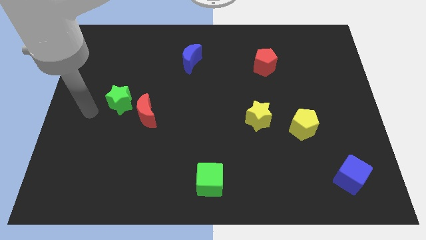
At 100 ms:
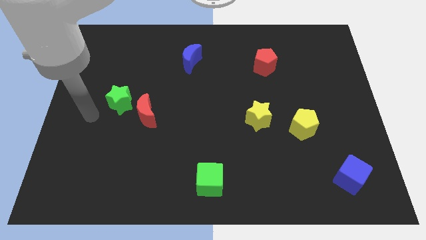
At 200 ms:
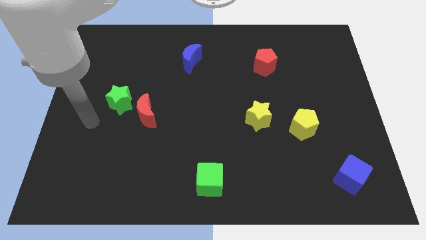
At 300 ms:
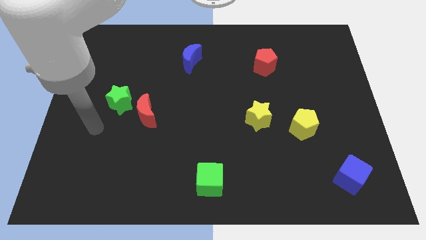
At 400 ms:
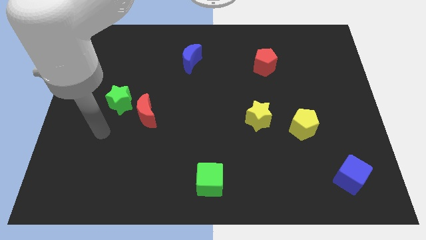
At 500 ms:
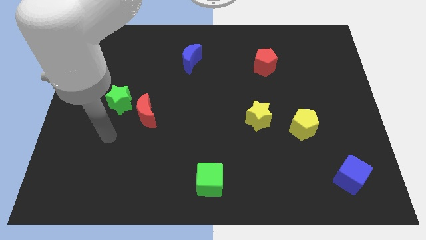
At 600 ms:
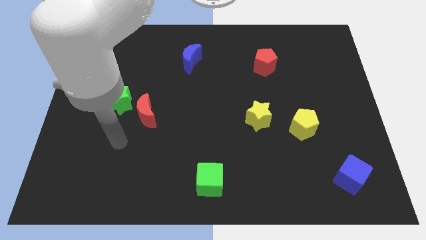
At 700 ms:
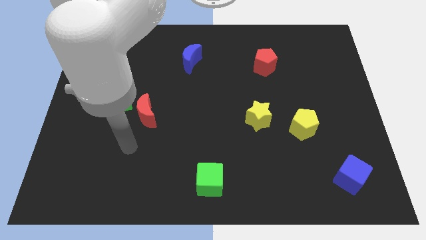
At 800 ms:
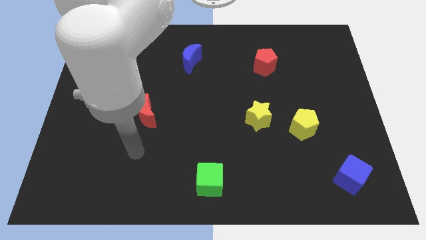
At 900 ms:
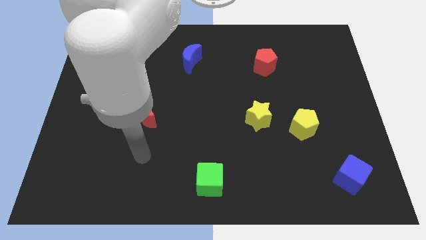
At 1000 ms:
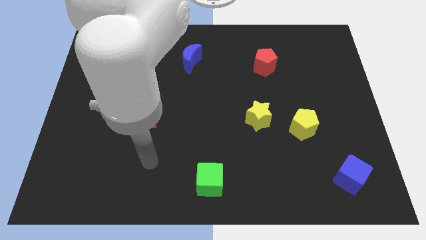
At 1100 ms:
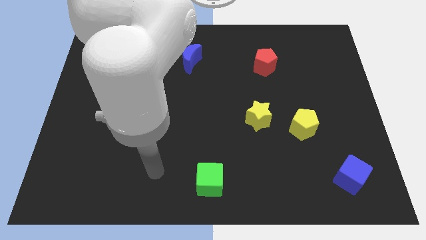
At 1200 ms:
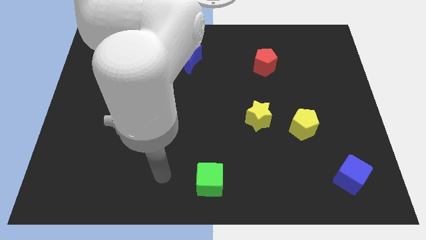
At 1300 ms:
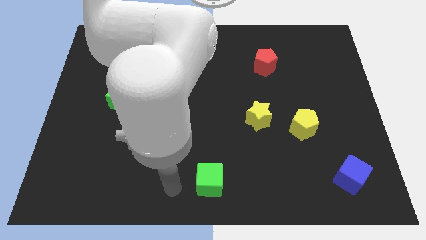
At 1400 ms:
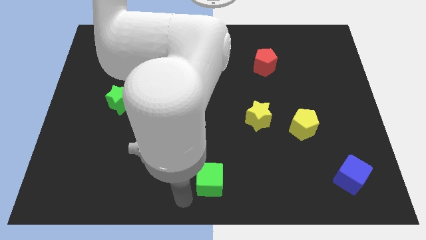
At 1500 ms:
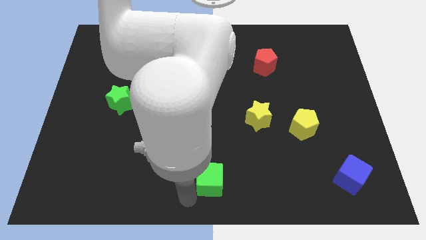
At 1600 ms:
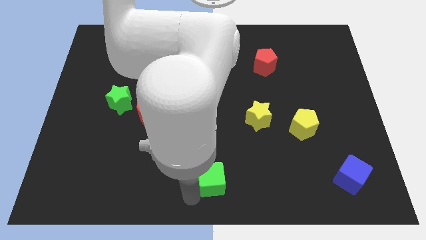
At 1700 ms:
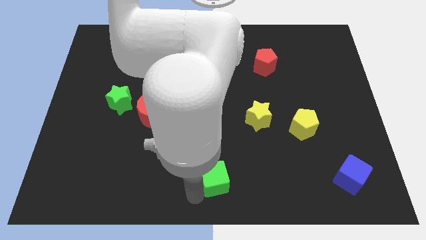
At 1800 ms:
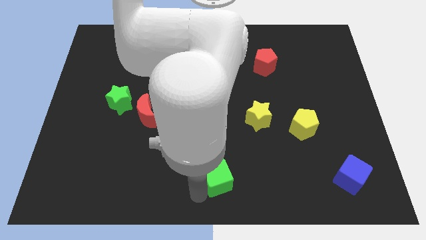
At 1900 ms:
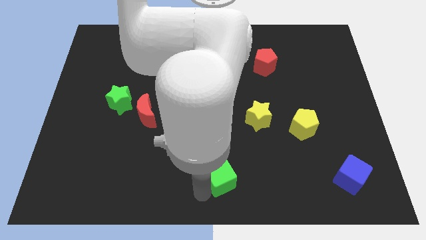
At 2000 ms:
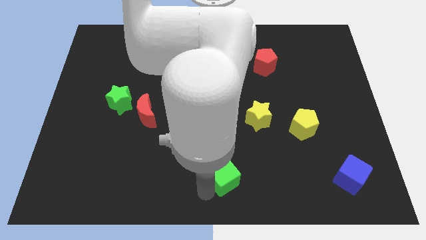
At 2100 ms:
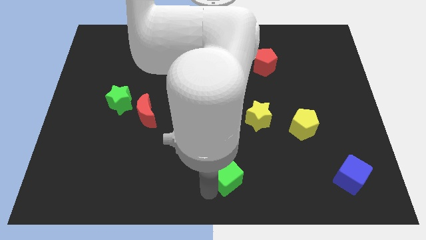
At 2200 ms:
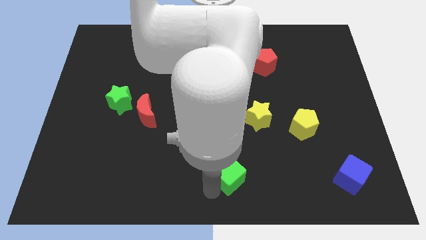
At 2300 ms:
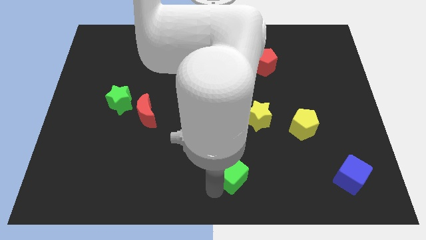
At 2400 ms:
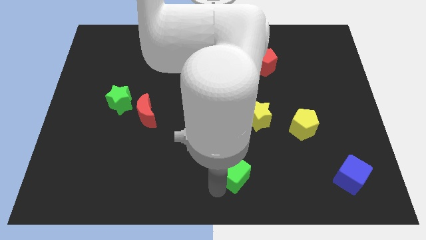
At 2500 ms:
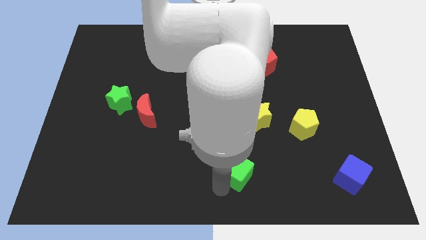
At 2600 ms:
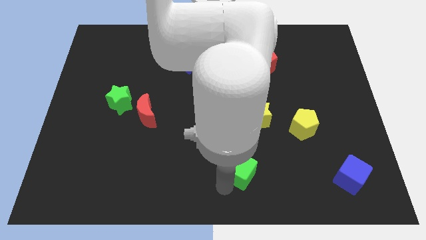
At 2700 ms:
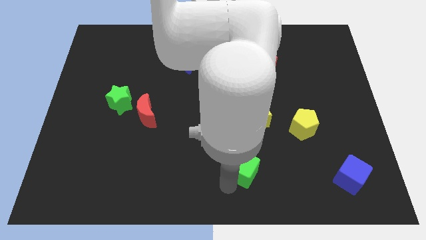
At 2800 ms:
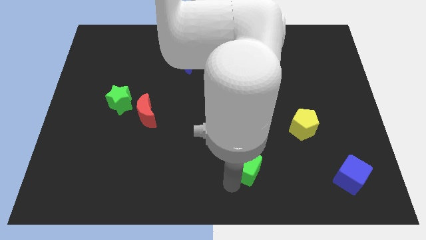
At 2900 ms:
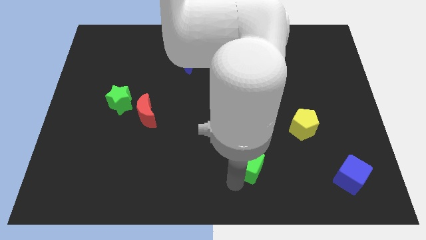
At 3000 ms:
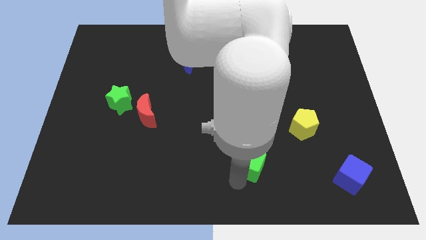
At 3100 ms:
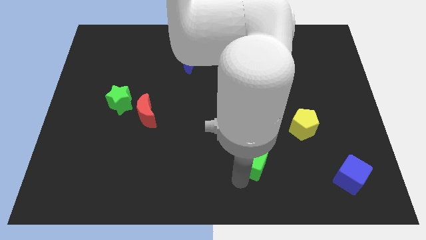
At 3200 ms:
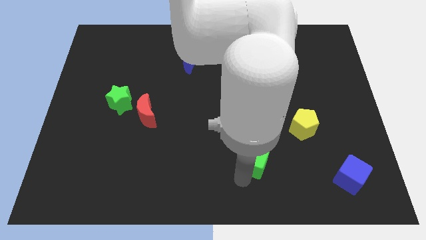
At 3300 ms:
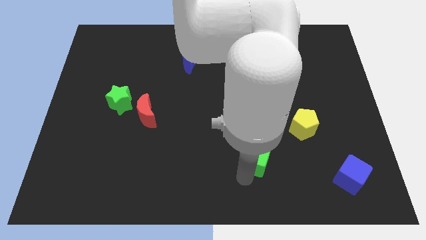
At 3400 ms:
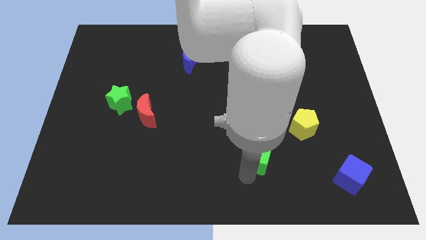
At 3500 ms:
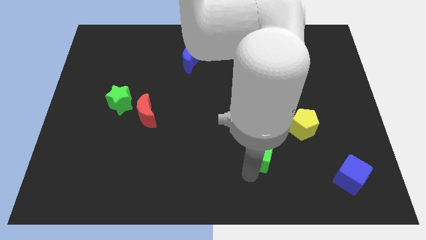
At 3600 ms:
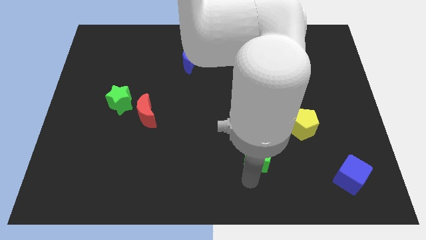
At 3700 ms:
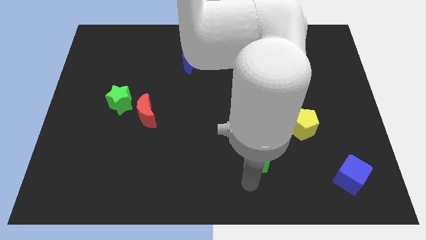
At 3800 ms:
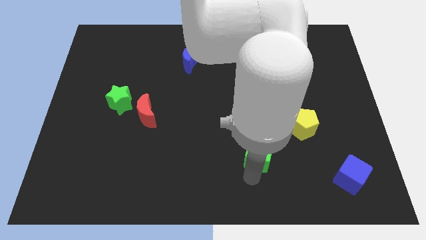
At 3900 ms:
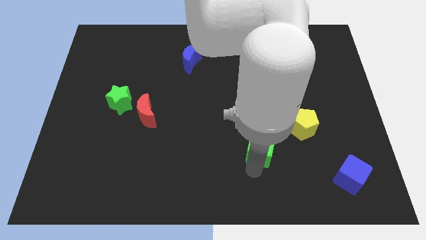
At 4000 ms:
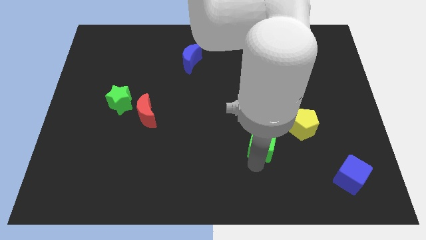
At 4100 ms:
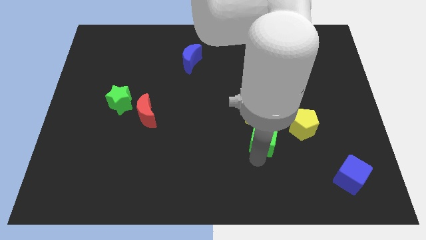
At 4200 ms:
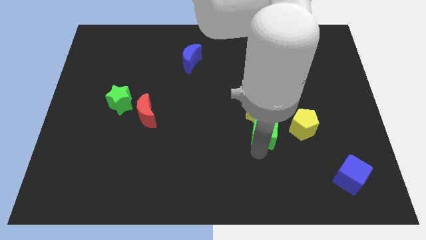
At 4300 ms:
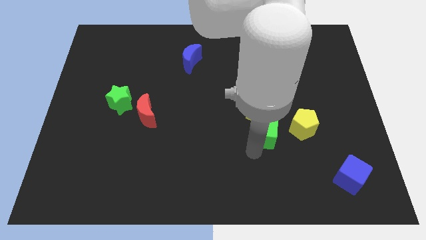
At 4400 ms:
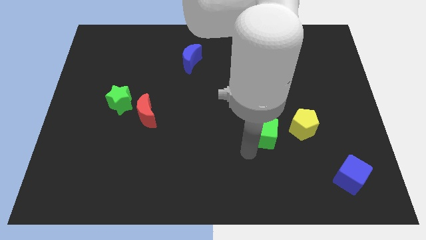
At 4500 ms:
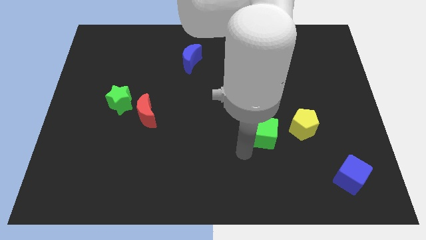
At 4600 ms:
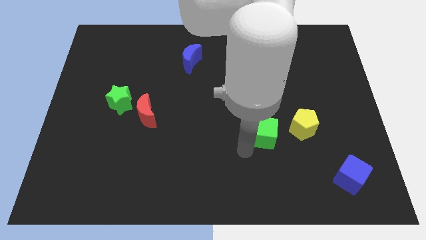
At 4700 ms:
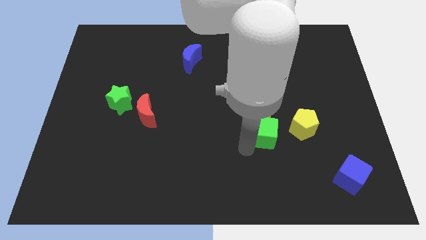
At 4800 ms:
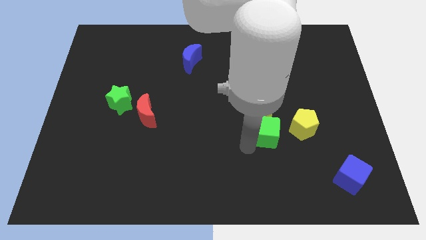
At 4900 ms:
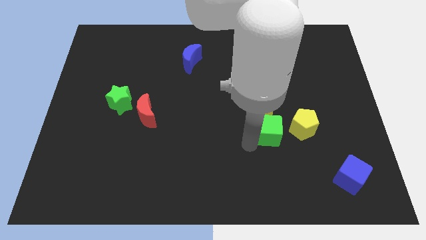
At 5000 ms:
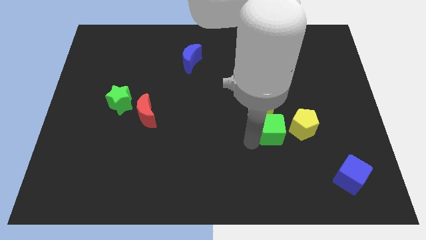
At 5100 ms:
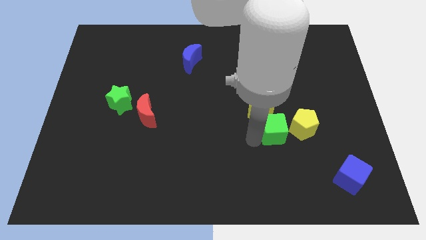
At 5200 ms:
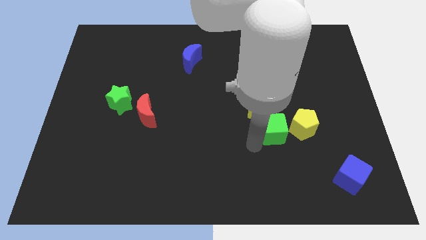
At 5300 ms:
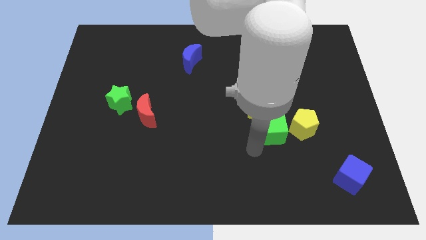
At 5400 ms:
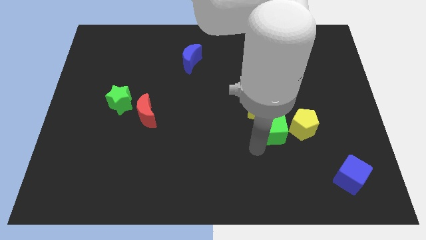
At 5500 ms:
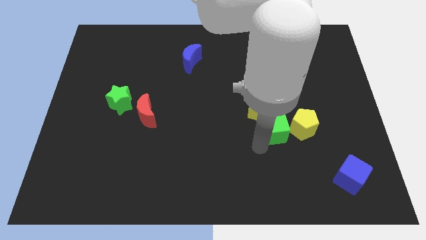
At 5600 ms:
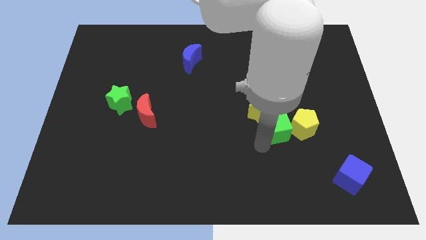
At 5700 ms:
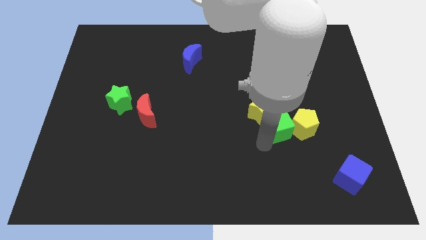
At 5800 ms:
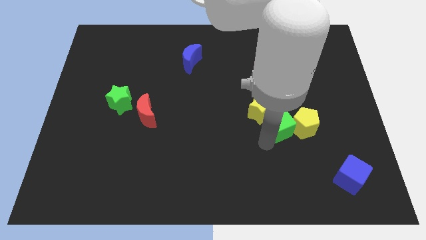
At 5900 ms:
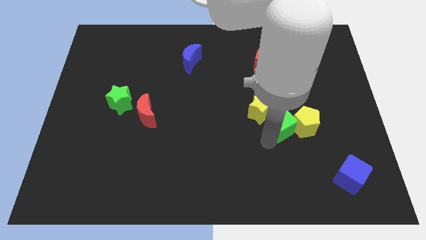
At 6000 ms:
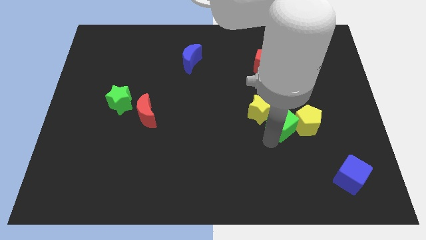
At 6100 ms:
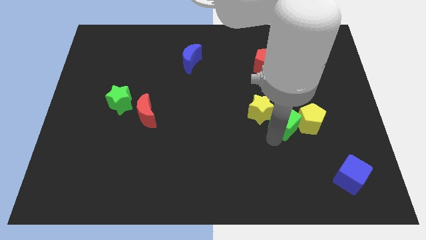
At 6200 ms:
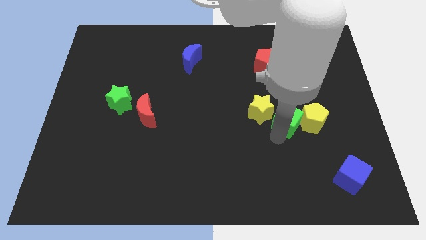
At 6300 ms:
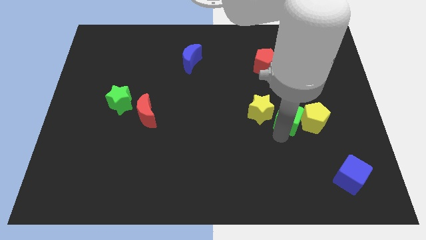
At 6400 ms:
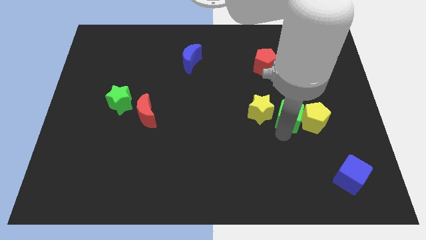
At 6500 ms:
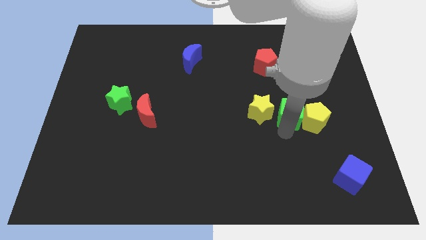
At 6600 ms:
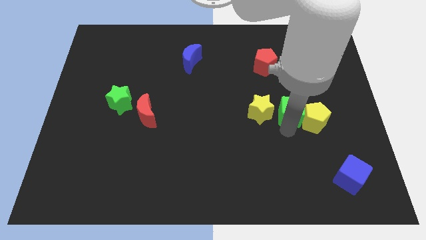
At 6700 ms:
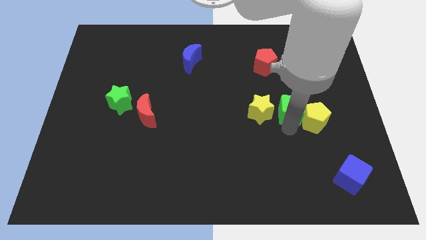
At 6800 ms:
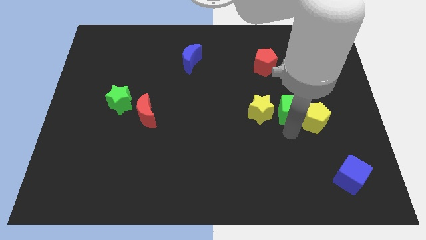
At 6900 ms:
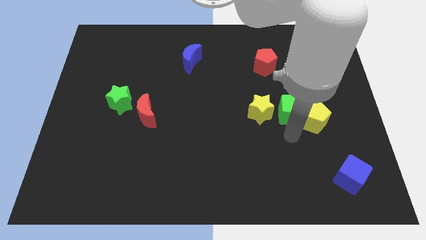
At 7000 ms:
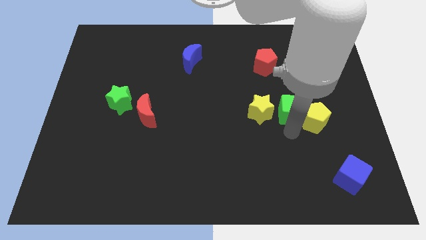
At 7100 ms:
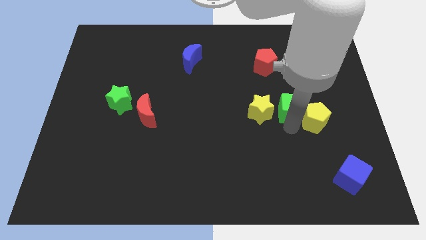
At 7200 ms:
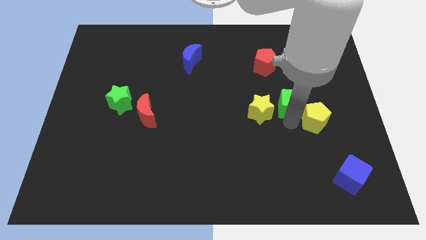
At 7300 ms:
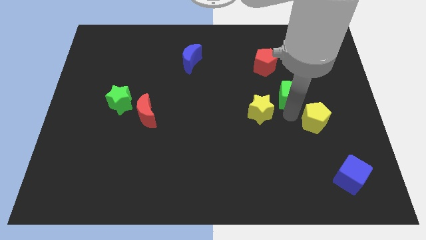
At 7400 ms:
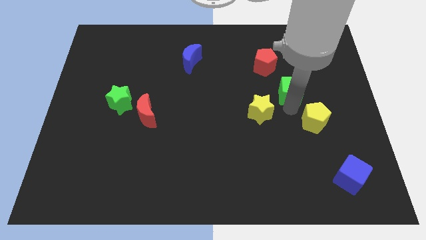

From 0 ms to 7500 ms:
put the green cube to the bottom right side of the red pentagon
